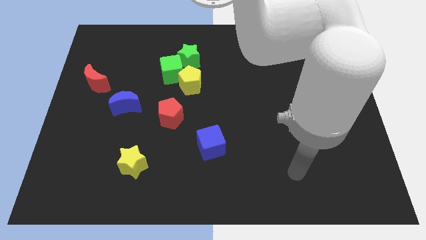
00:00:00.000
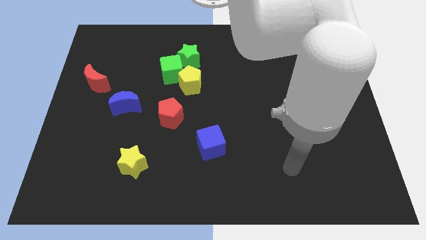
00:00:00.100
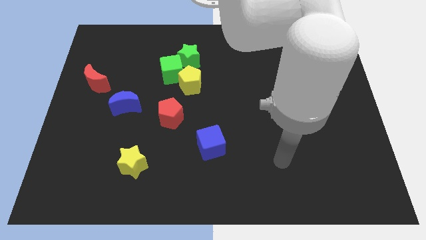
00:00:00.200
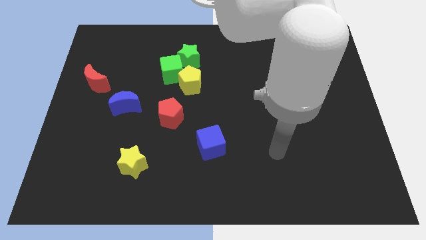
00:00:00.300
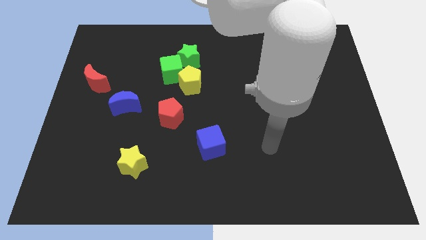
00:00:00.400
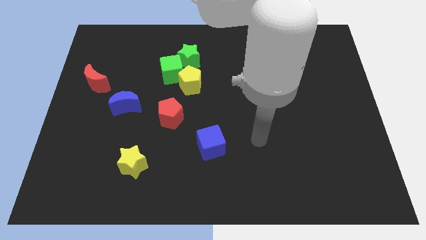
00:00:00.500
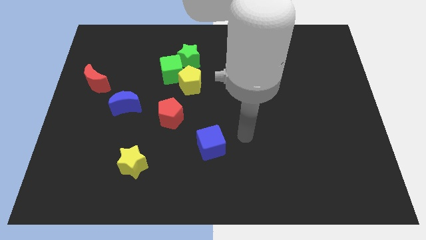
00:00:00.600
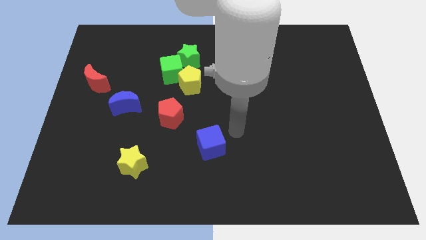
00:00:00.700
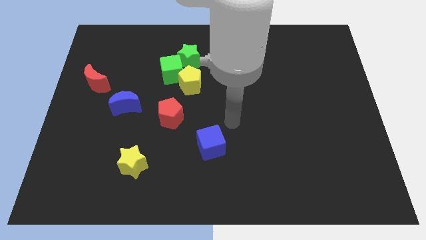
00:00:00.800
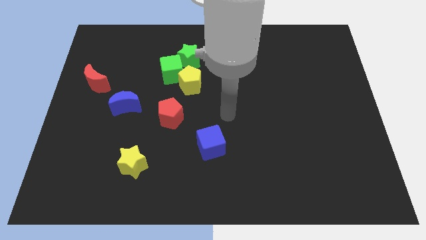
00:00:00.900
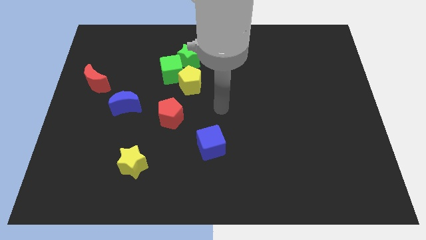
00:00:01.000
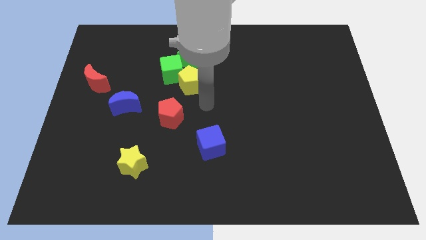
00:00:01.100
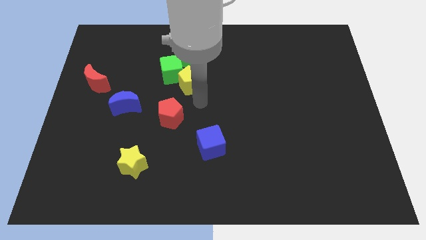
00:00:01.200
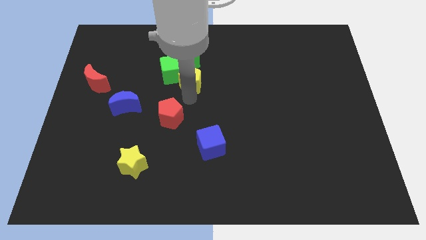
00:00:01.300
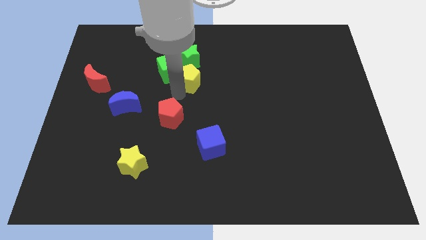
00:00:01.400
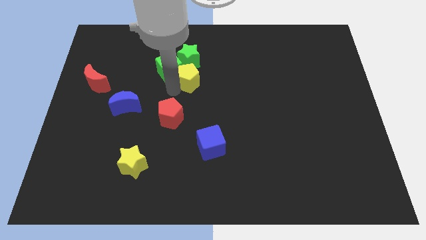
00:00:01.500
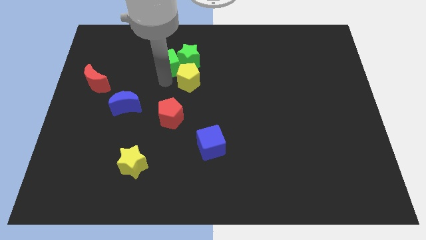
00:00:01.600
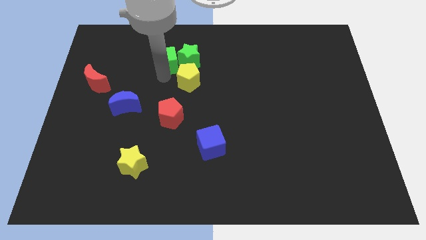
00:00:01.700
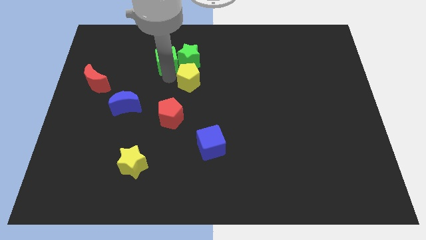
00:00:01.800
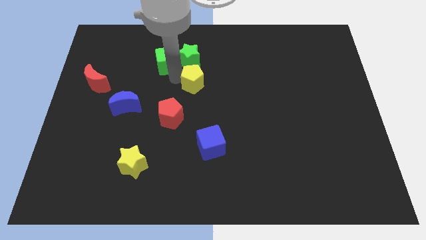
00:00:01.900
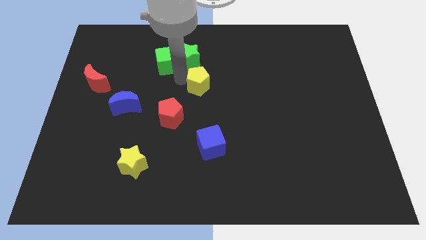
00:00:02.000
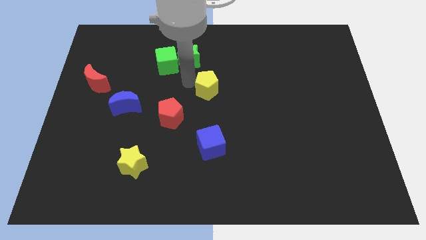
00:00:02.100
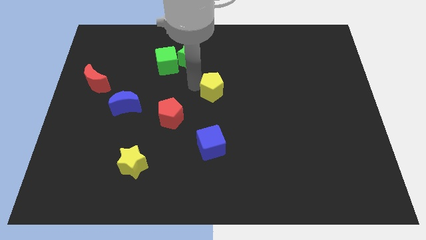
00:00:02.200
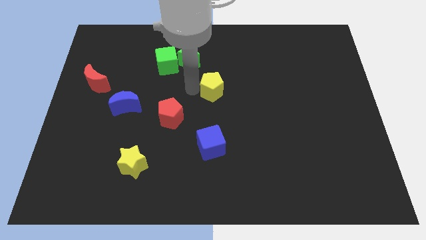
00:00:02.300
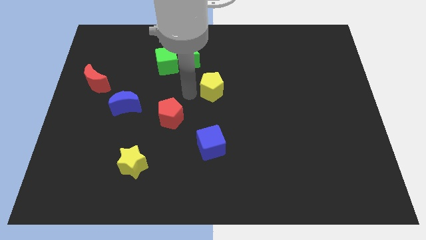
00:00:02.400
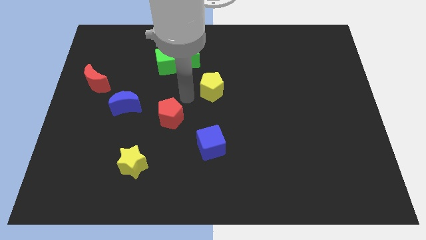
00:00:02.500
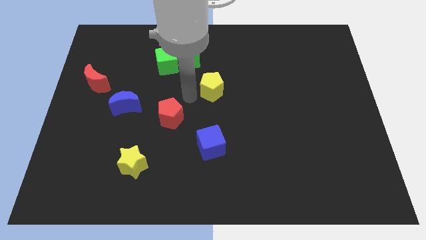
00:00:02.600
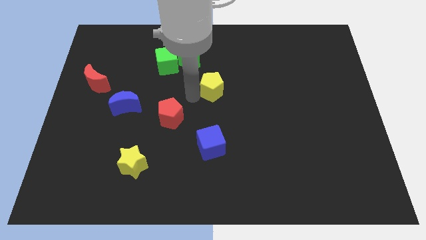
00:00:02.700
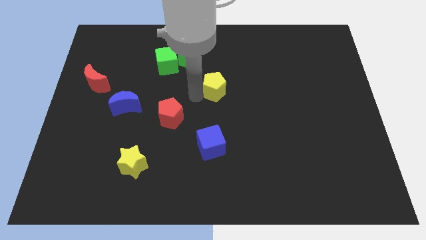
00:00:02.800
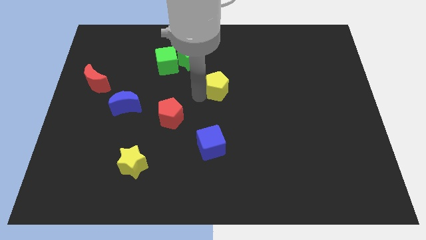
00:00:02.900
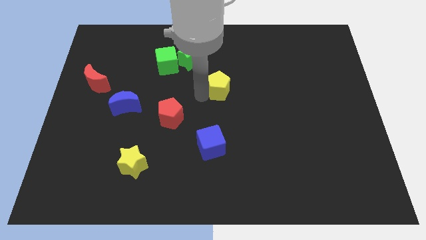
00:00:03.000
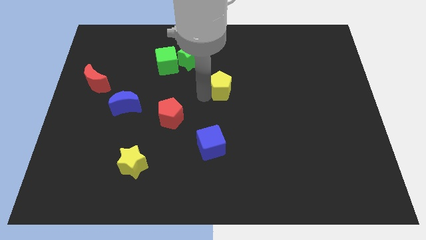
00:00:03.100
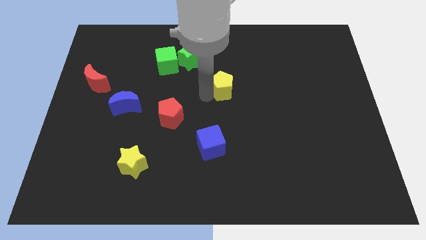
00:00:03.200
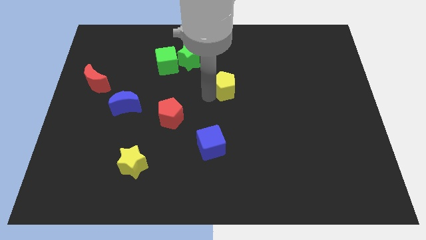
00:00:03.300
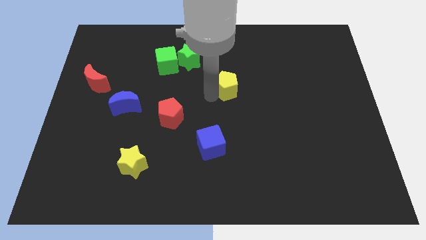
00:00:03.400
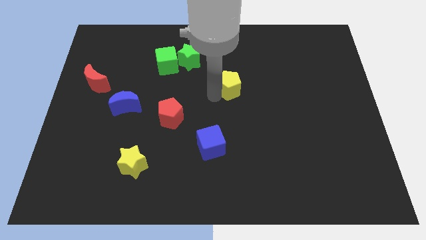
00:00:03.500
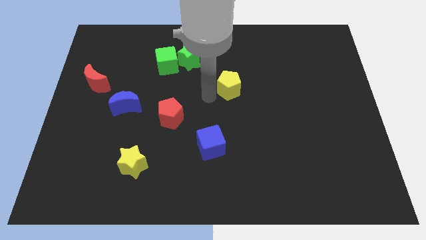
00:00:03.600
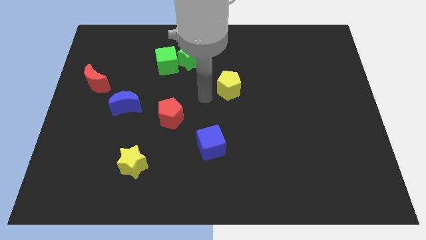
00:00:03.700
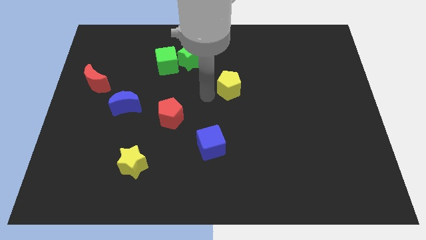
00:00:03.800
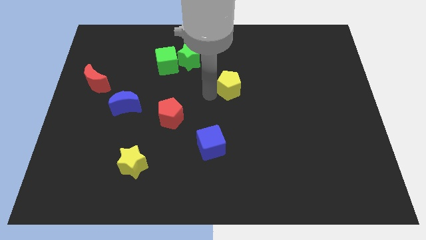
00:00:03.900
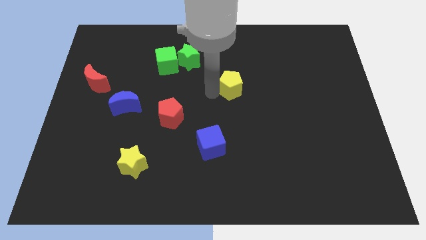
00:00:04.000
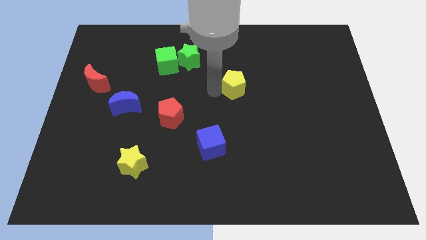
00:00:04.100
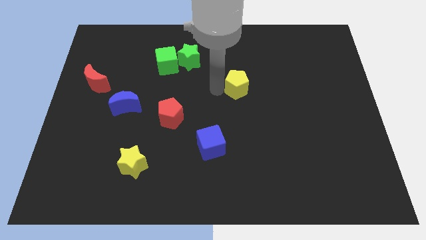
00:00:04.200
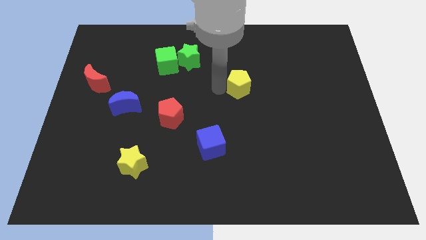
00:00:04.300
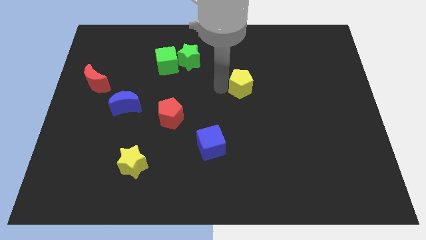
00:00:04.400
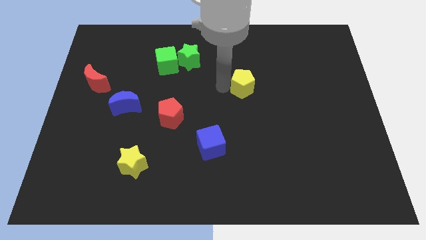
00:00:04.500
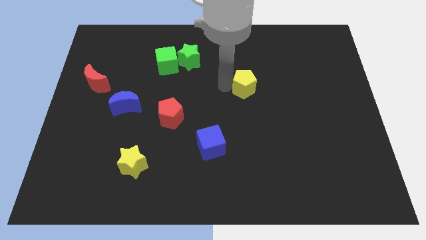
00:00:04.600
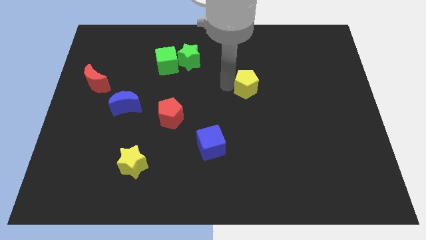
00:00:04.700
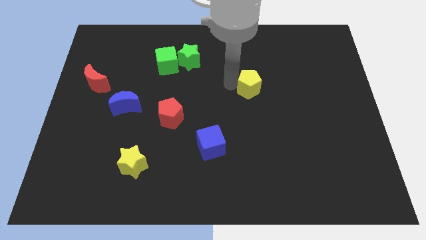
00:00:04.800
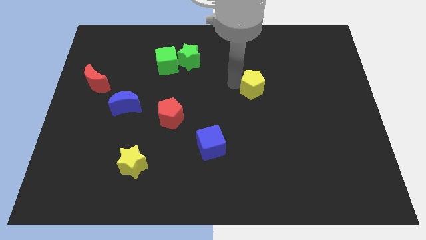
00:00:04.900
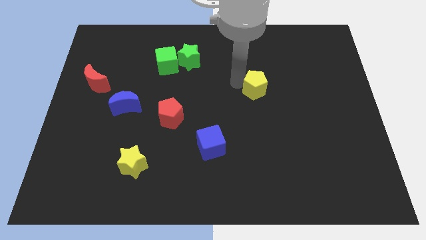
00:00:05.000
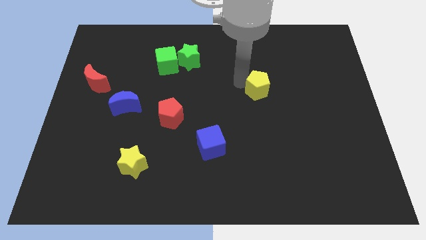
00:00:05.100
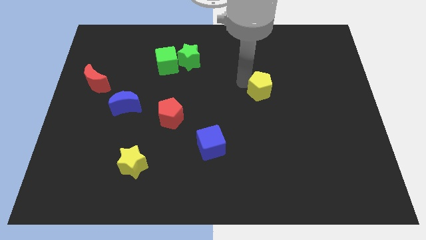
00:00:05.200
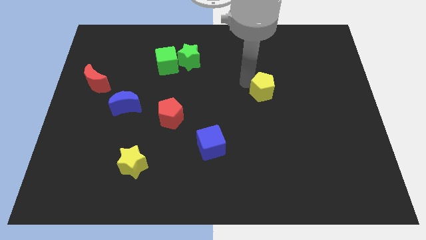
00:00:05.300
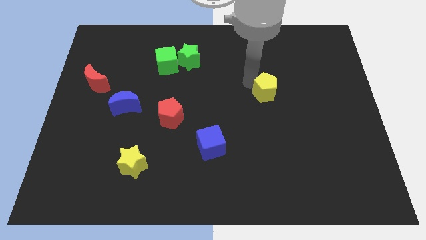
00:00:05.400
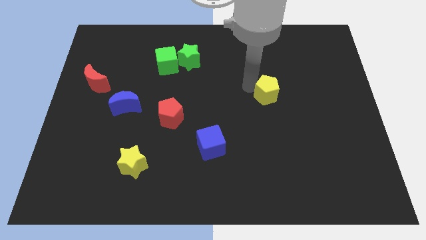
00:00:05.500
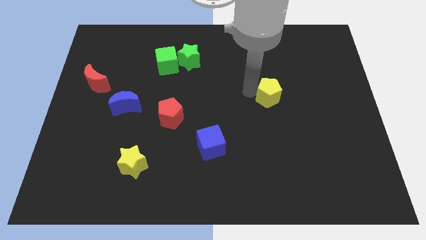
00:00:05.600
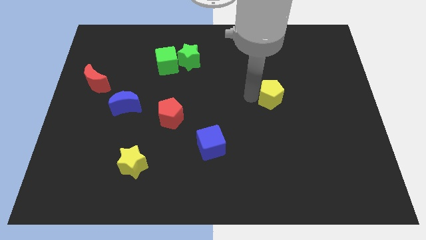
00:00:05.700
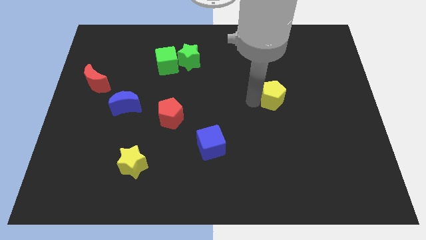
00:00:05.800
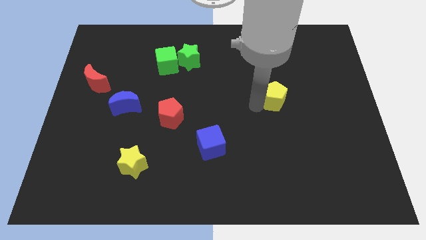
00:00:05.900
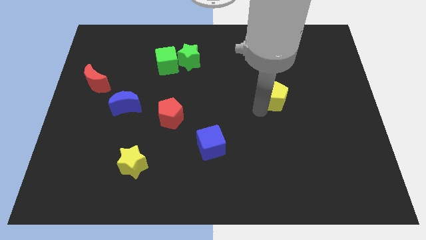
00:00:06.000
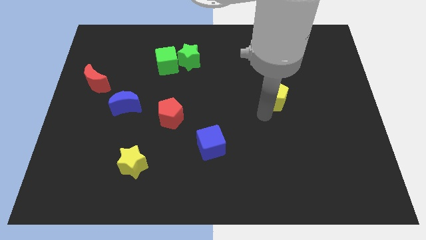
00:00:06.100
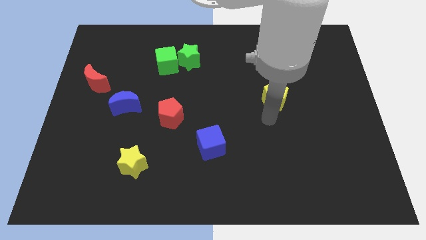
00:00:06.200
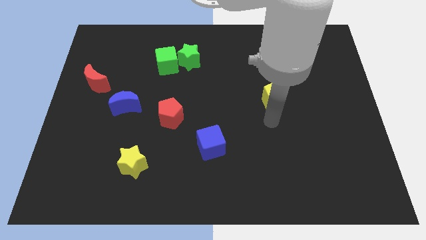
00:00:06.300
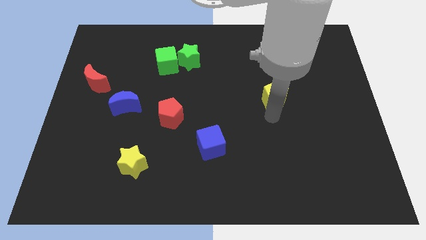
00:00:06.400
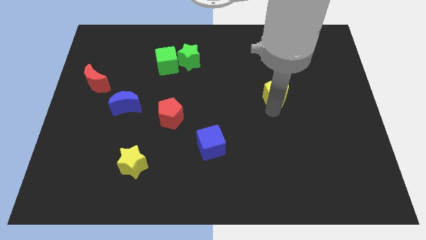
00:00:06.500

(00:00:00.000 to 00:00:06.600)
push the yellow pentagon right

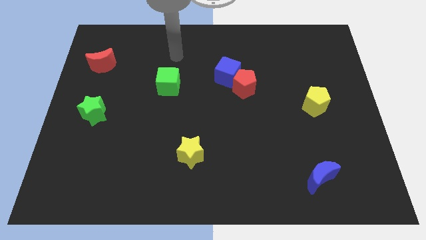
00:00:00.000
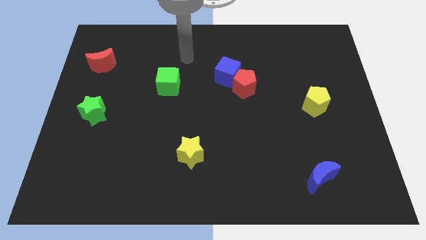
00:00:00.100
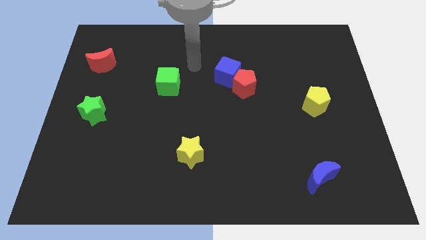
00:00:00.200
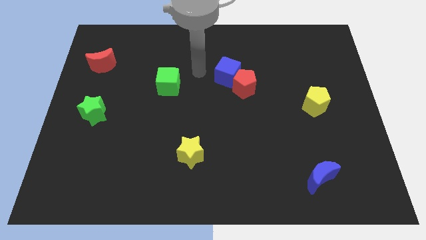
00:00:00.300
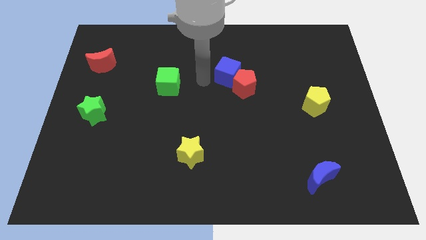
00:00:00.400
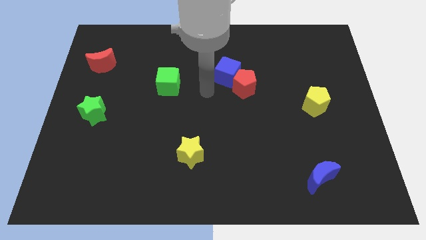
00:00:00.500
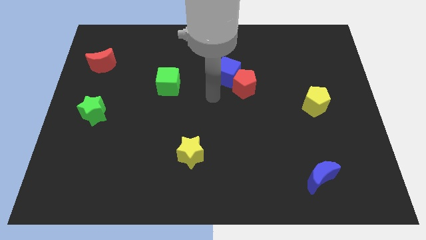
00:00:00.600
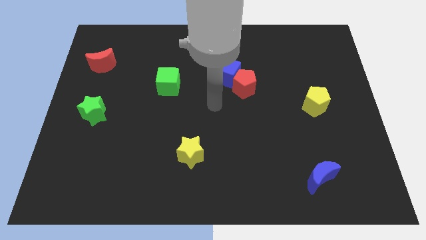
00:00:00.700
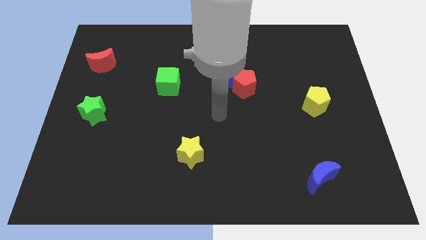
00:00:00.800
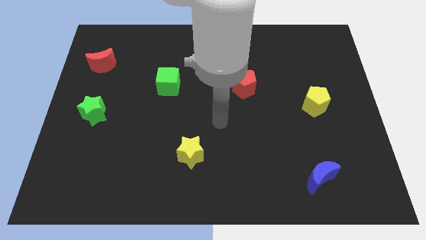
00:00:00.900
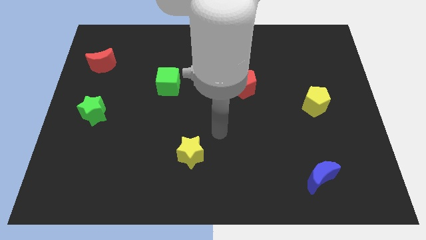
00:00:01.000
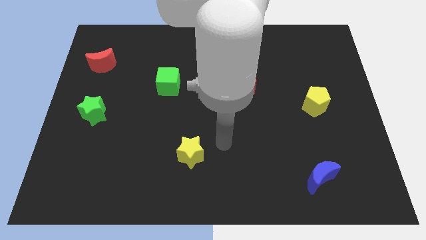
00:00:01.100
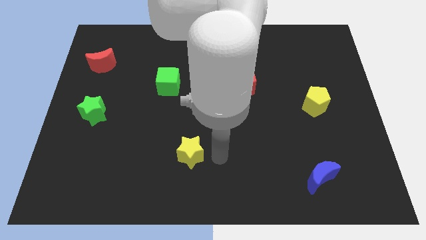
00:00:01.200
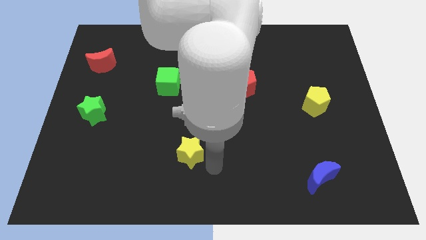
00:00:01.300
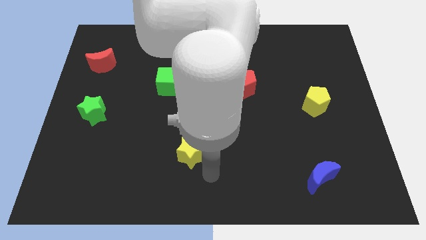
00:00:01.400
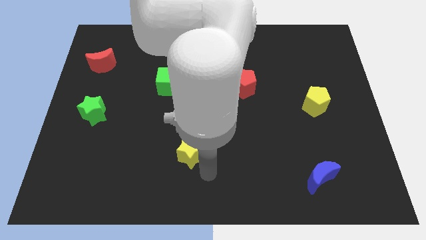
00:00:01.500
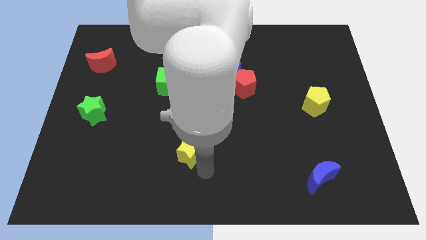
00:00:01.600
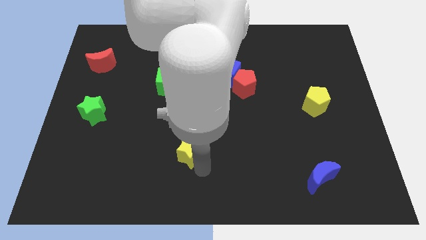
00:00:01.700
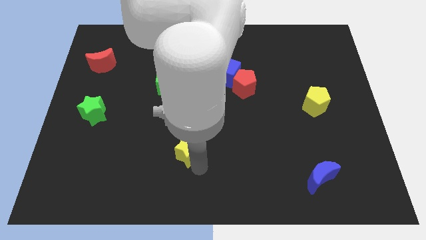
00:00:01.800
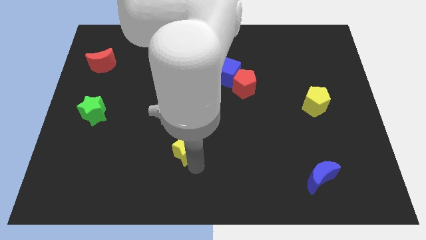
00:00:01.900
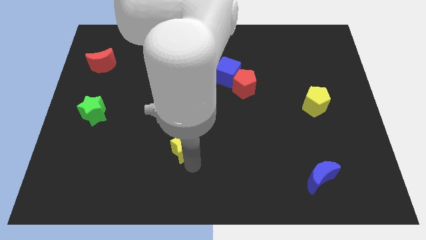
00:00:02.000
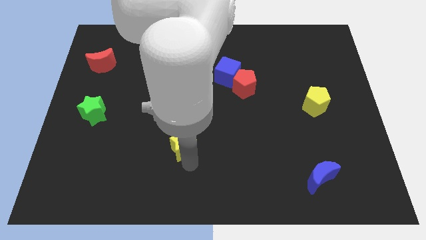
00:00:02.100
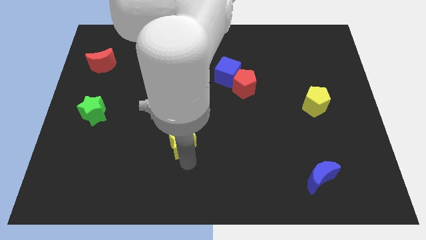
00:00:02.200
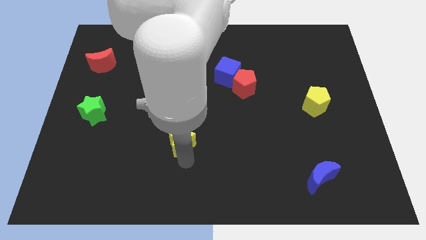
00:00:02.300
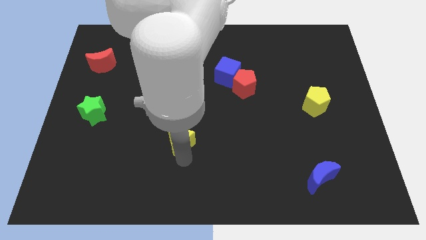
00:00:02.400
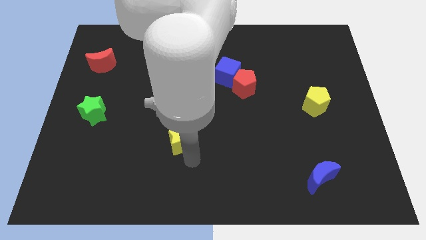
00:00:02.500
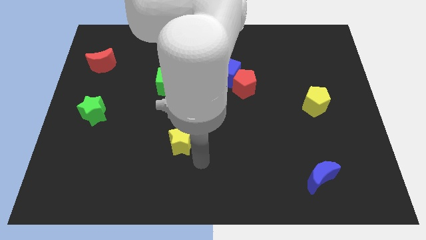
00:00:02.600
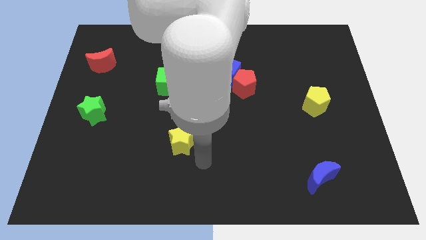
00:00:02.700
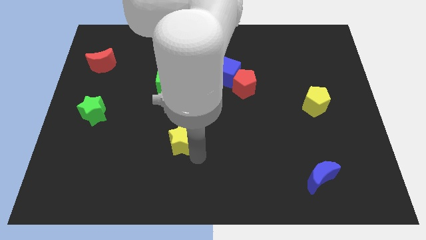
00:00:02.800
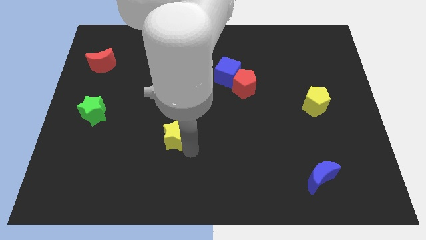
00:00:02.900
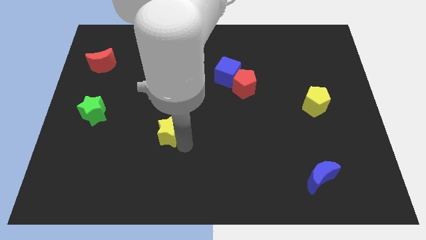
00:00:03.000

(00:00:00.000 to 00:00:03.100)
move the yellow star up and to the left diagonally slightly
